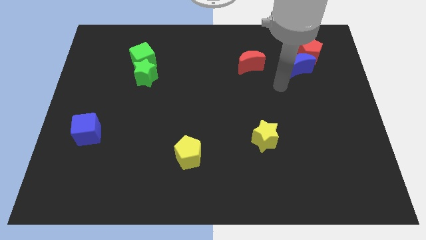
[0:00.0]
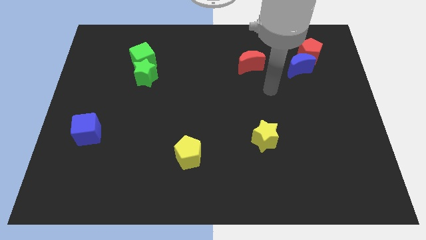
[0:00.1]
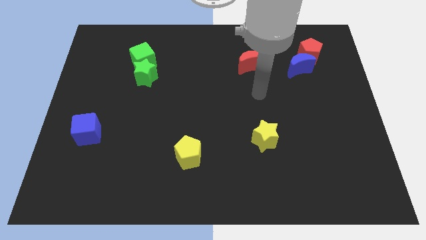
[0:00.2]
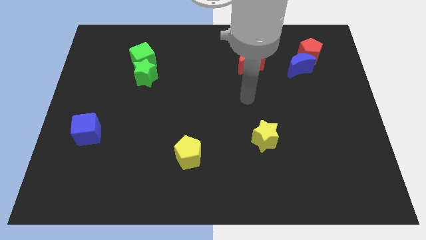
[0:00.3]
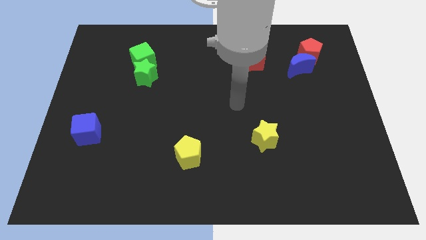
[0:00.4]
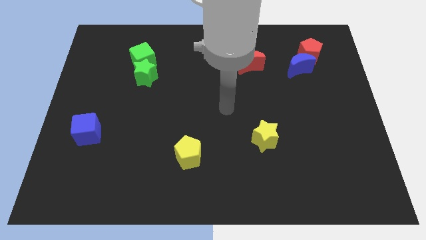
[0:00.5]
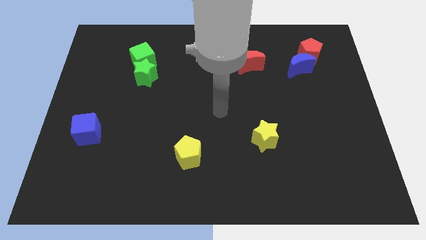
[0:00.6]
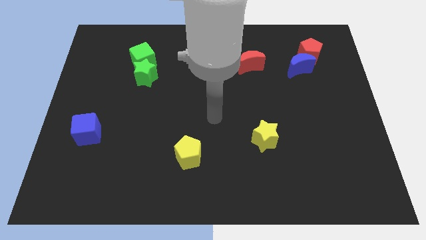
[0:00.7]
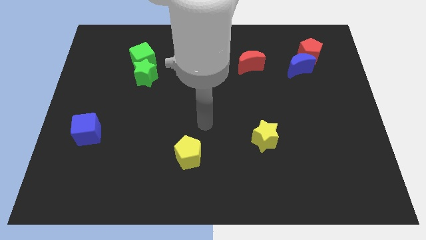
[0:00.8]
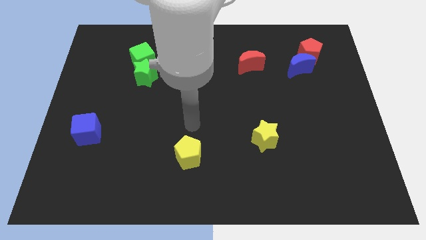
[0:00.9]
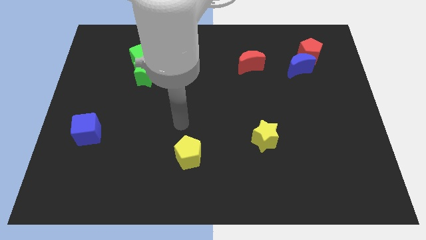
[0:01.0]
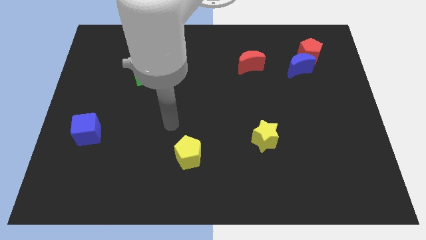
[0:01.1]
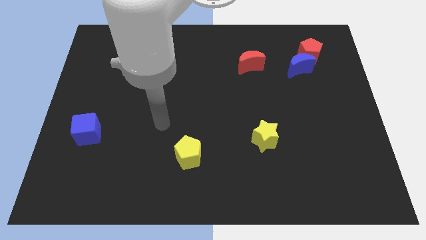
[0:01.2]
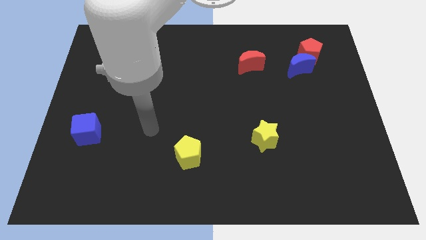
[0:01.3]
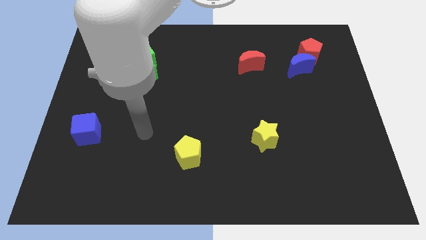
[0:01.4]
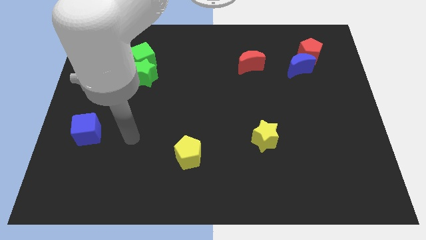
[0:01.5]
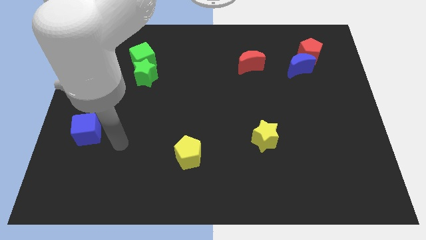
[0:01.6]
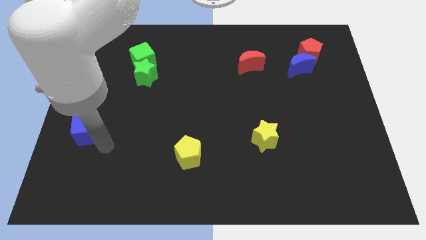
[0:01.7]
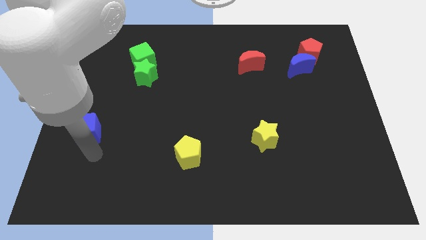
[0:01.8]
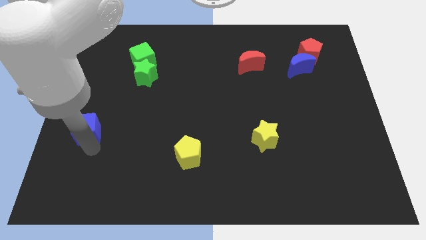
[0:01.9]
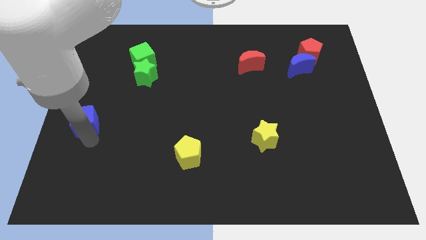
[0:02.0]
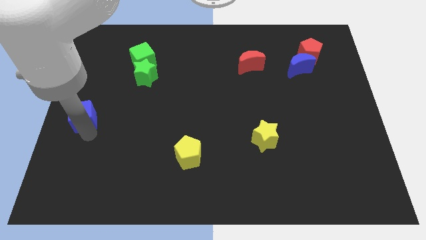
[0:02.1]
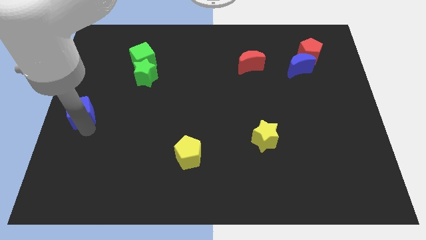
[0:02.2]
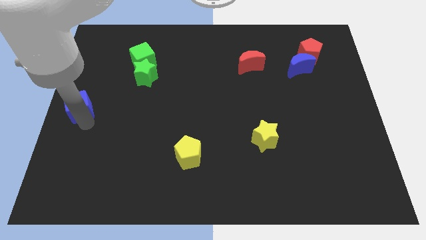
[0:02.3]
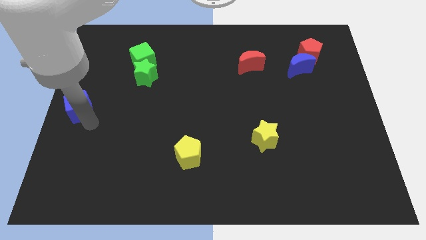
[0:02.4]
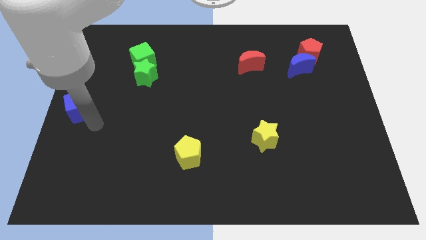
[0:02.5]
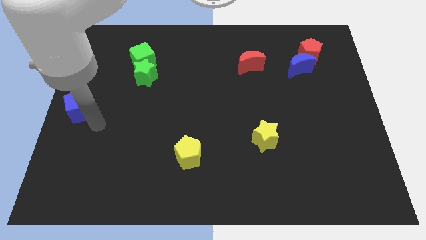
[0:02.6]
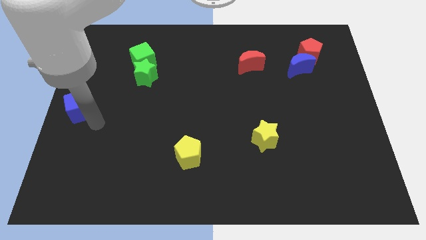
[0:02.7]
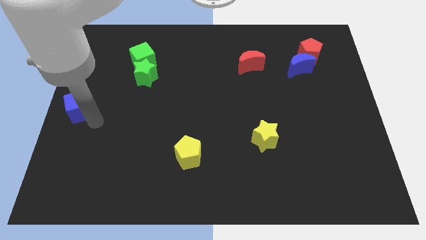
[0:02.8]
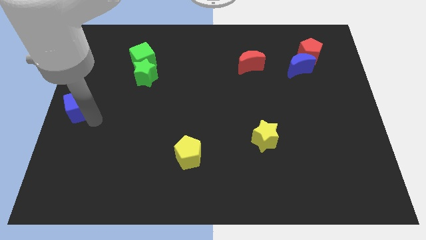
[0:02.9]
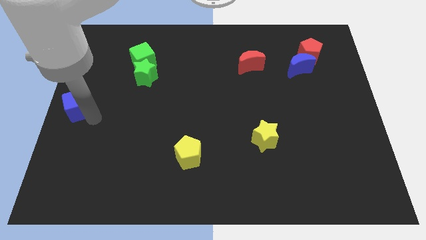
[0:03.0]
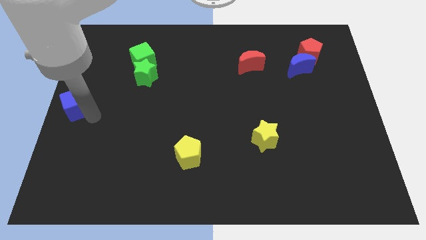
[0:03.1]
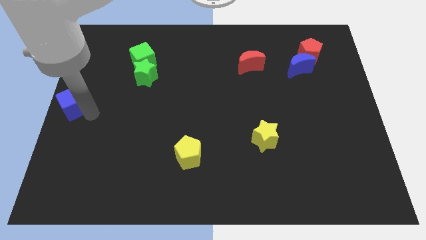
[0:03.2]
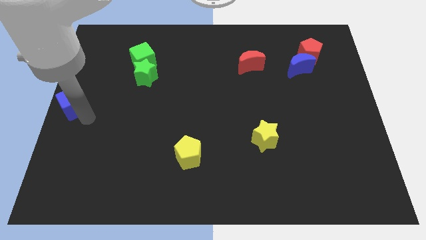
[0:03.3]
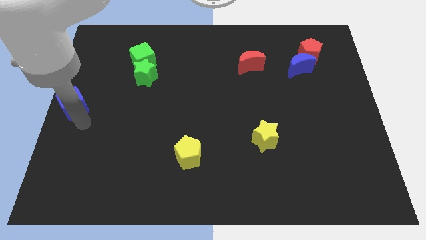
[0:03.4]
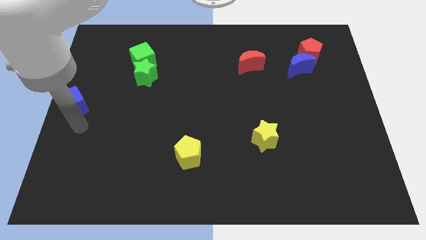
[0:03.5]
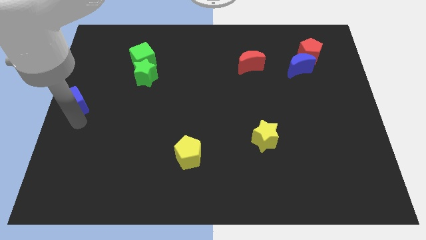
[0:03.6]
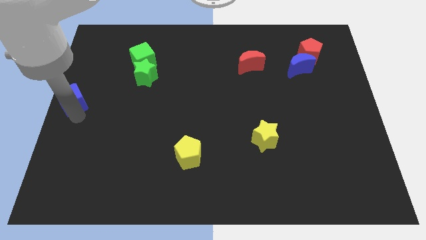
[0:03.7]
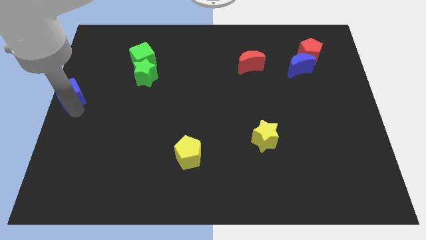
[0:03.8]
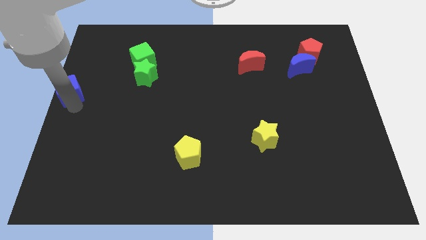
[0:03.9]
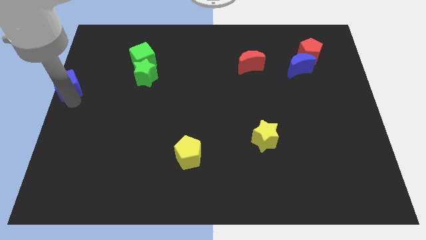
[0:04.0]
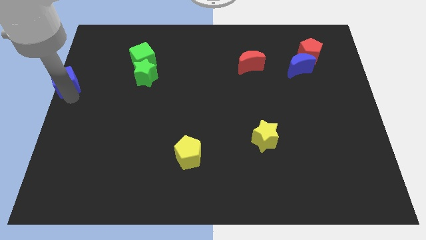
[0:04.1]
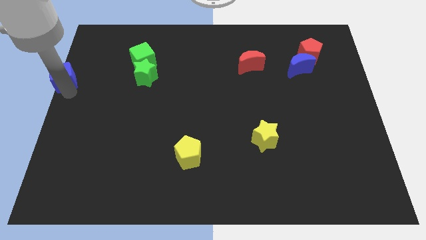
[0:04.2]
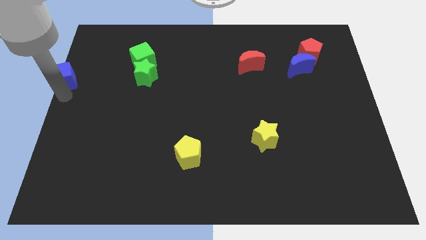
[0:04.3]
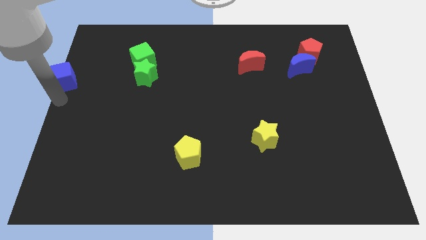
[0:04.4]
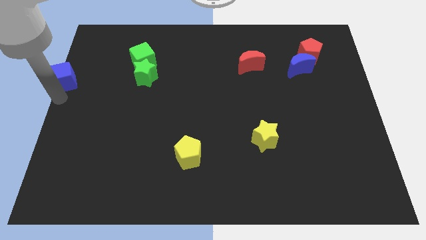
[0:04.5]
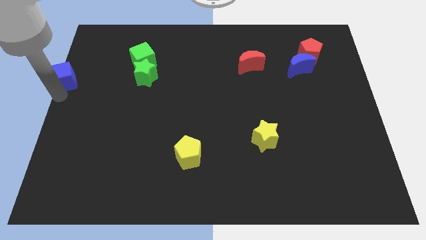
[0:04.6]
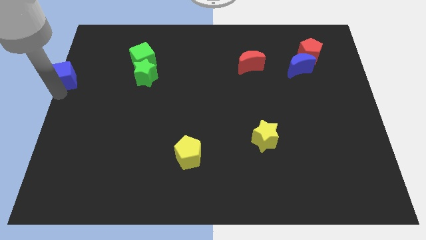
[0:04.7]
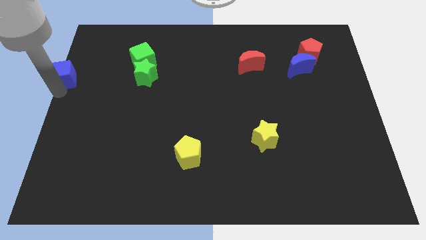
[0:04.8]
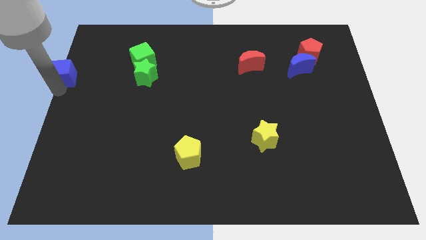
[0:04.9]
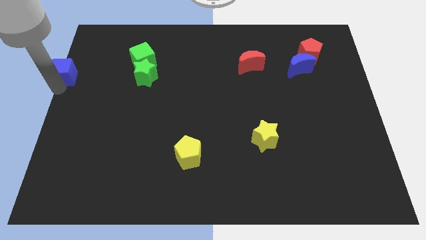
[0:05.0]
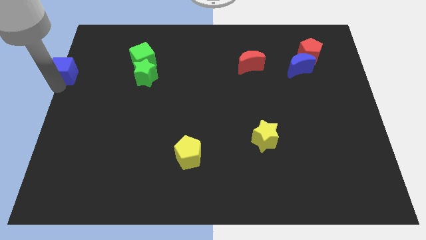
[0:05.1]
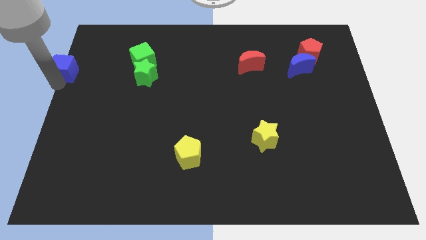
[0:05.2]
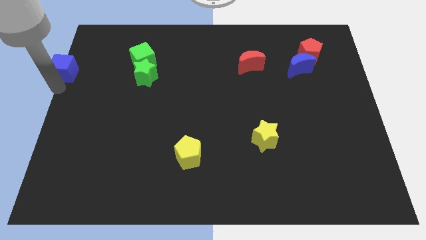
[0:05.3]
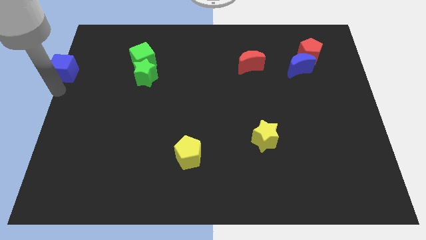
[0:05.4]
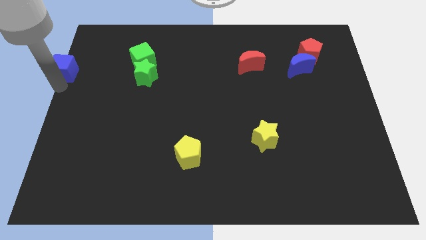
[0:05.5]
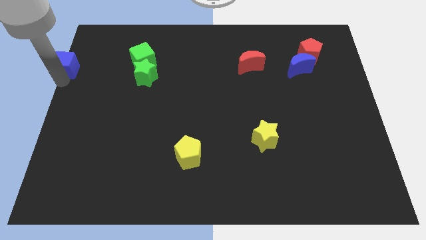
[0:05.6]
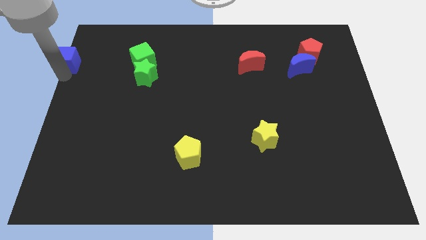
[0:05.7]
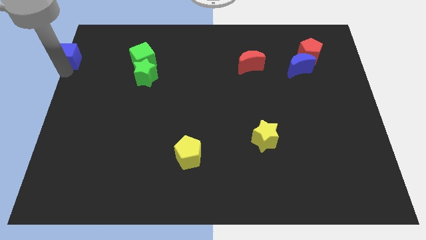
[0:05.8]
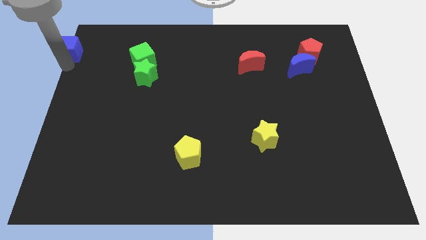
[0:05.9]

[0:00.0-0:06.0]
put the blue cube to the top left corner

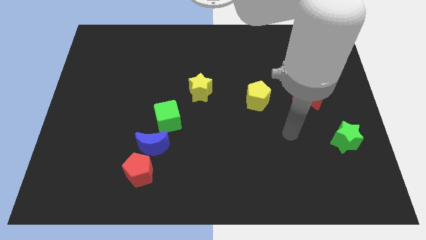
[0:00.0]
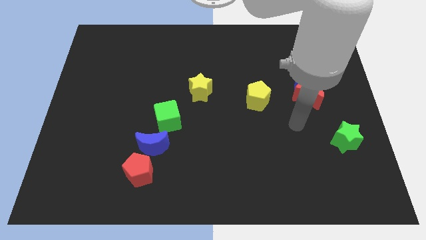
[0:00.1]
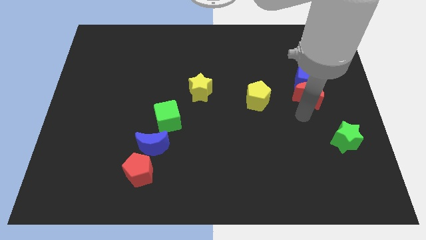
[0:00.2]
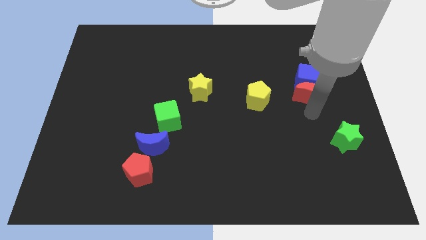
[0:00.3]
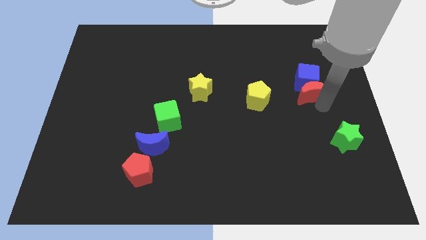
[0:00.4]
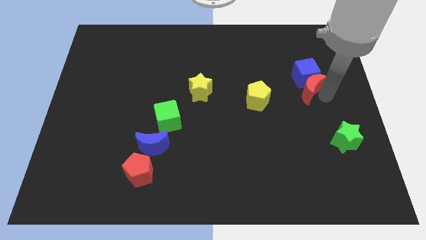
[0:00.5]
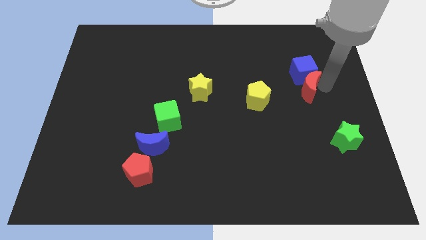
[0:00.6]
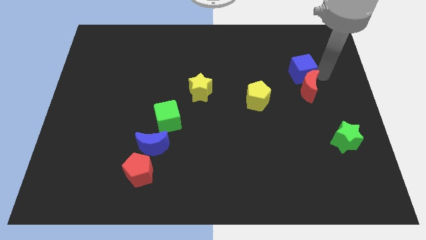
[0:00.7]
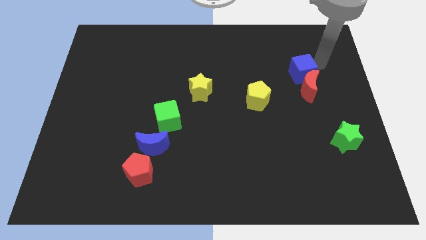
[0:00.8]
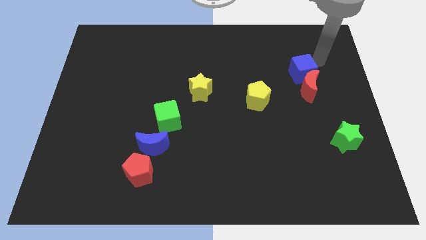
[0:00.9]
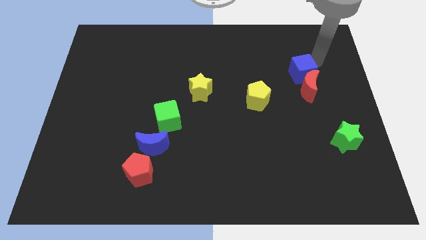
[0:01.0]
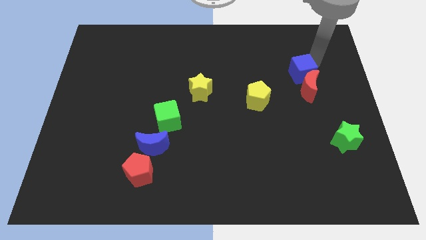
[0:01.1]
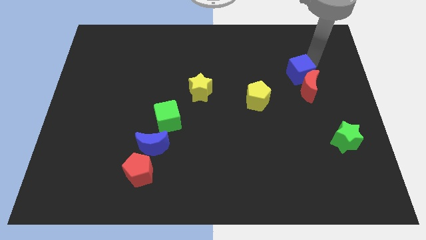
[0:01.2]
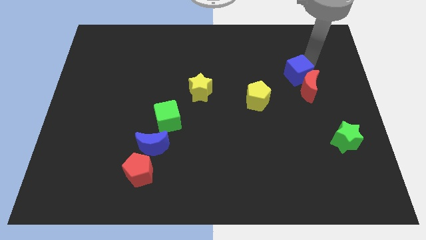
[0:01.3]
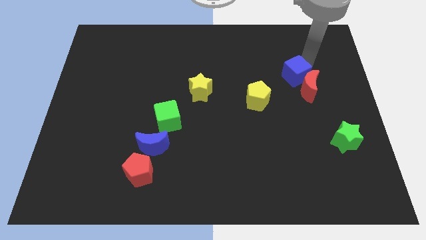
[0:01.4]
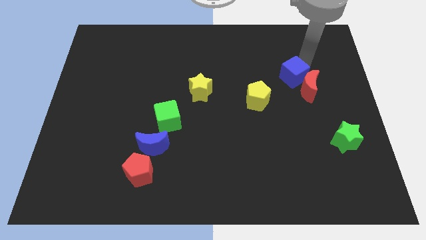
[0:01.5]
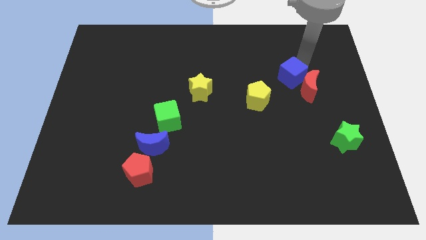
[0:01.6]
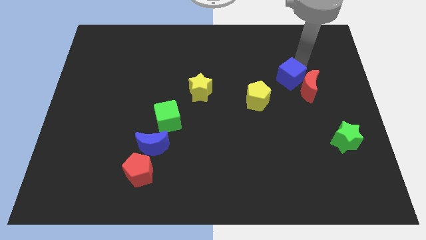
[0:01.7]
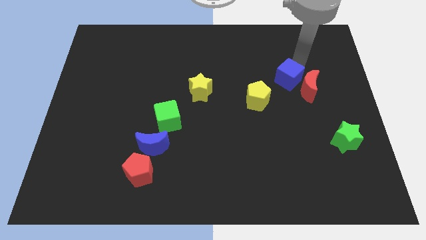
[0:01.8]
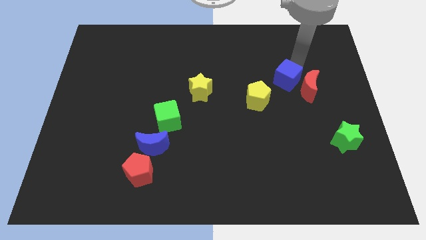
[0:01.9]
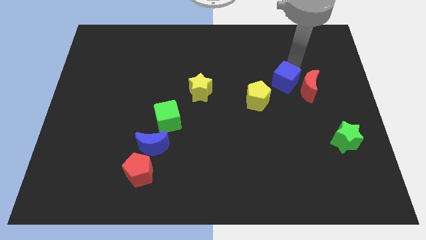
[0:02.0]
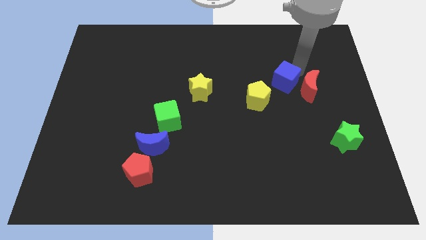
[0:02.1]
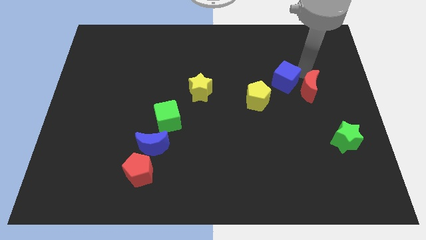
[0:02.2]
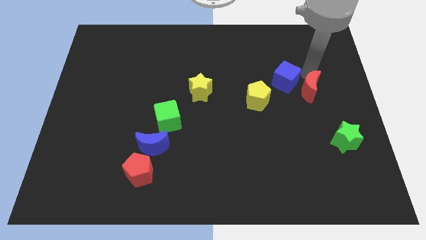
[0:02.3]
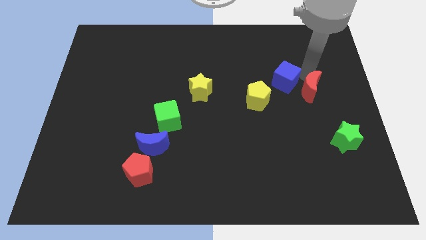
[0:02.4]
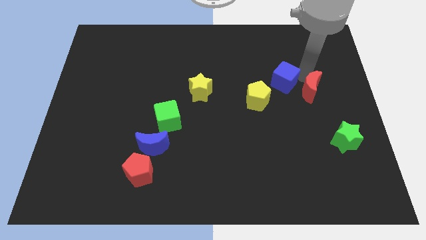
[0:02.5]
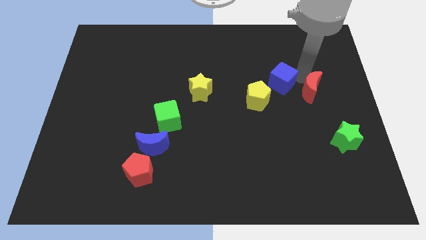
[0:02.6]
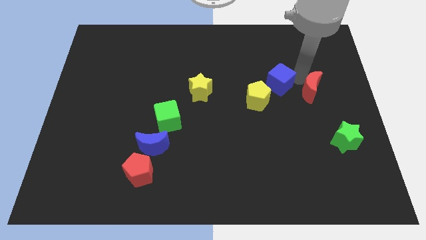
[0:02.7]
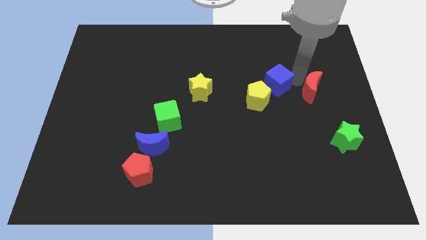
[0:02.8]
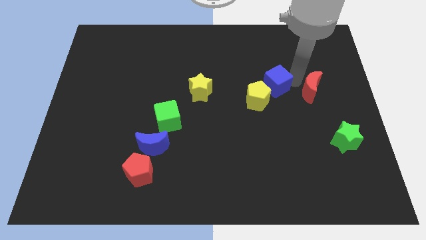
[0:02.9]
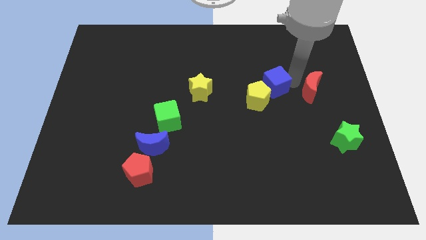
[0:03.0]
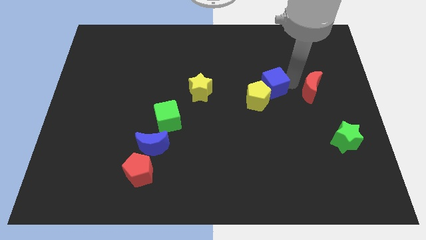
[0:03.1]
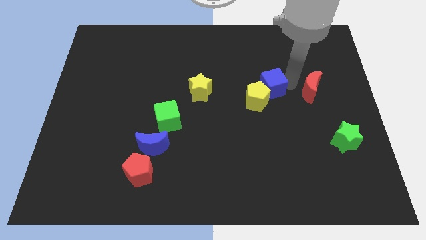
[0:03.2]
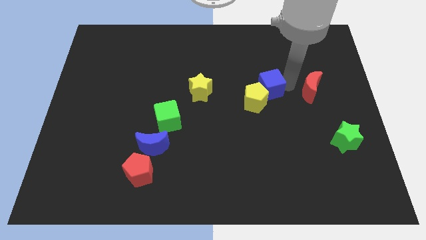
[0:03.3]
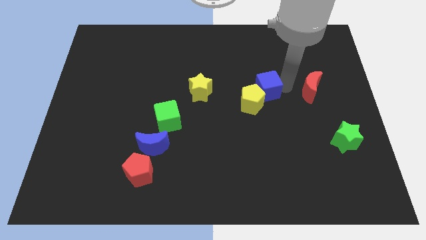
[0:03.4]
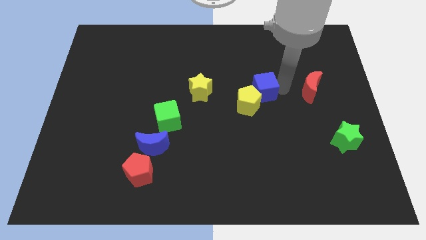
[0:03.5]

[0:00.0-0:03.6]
slide the blue cube to the middle of the board
